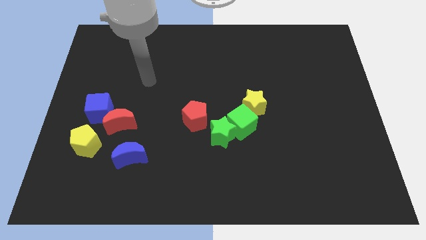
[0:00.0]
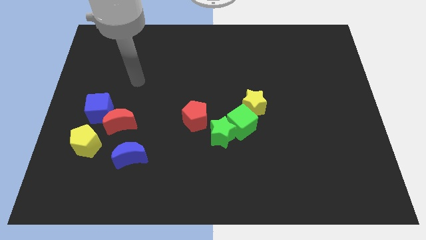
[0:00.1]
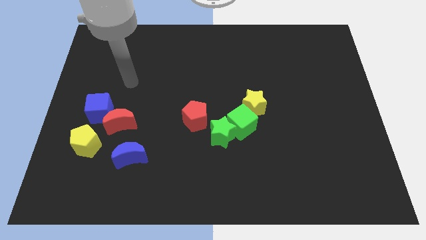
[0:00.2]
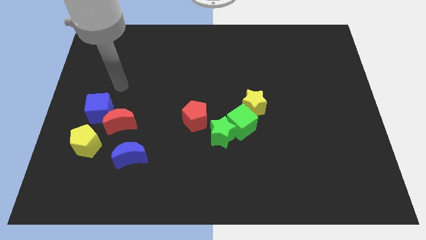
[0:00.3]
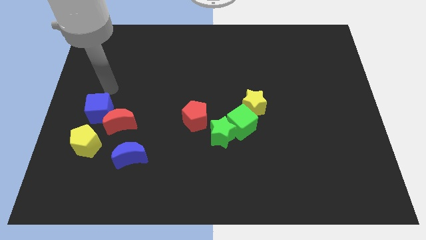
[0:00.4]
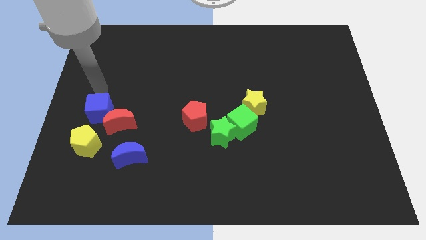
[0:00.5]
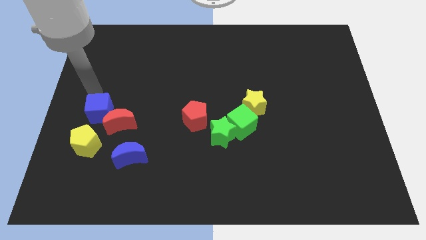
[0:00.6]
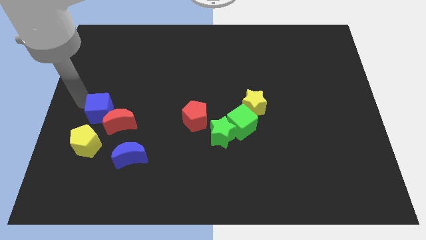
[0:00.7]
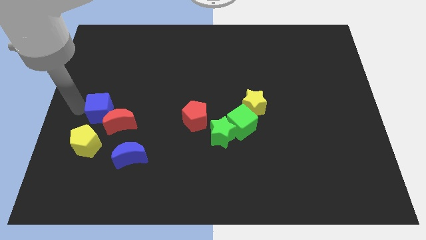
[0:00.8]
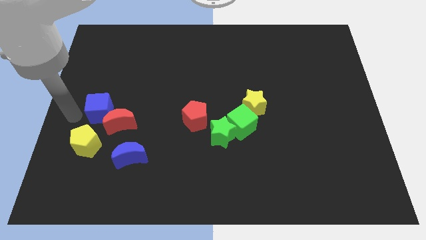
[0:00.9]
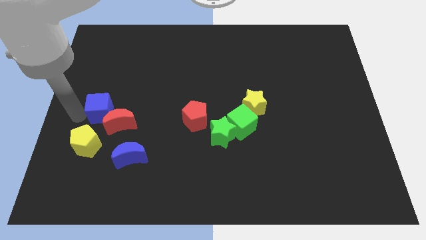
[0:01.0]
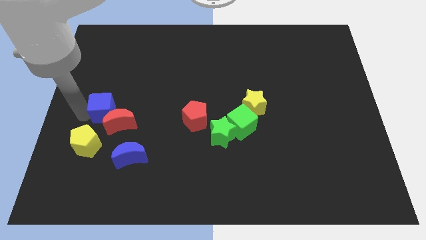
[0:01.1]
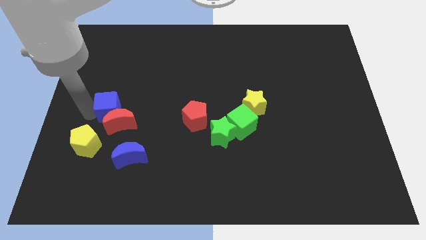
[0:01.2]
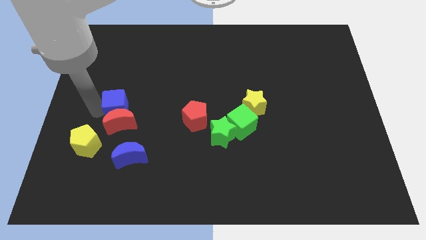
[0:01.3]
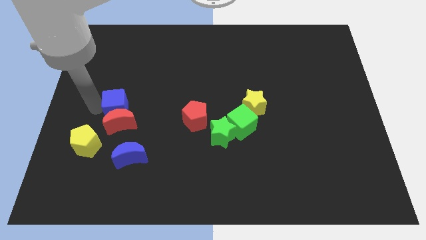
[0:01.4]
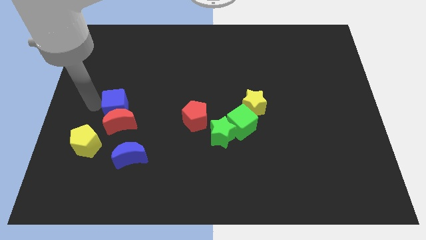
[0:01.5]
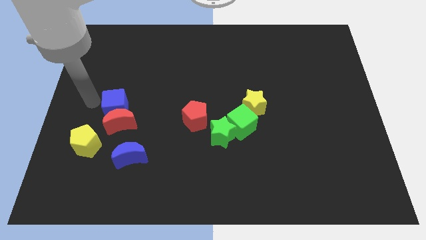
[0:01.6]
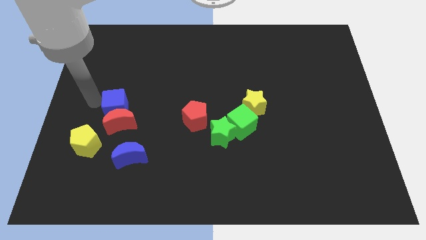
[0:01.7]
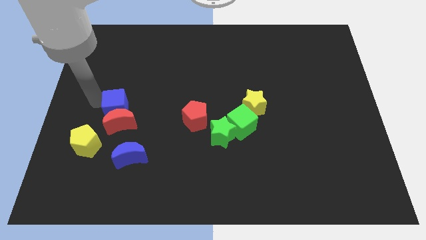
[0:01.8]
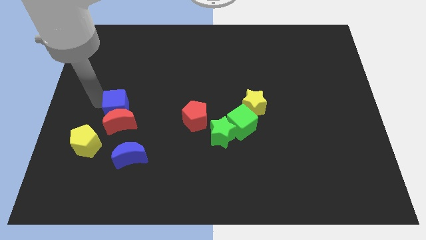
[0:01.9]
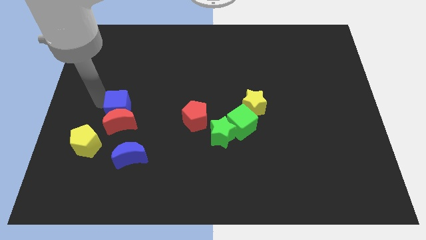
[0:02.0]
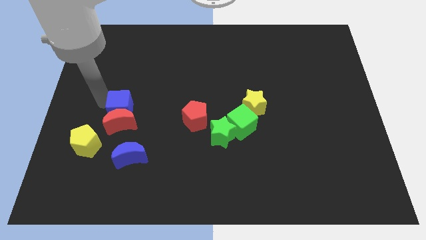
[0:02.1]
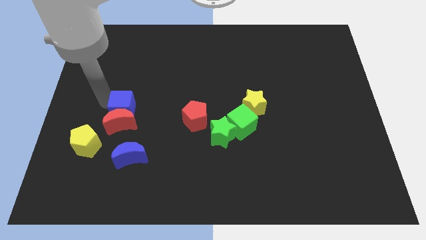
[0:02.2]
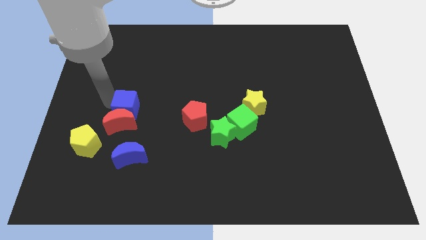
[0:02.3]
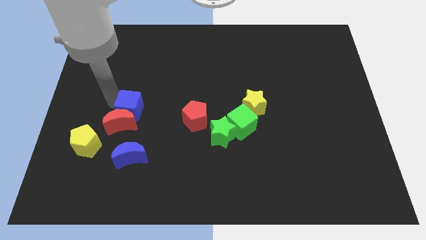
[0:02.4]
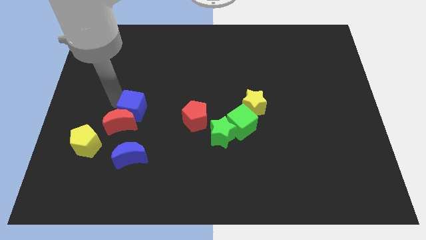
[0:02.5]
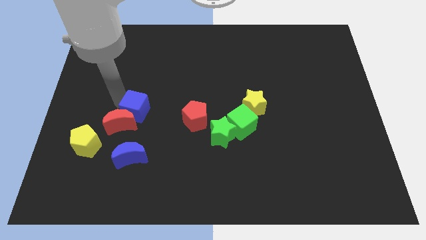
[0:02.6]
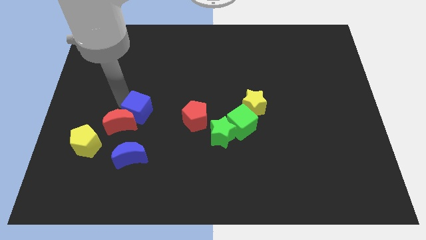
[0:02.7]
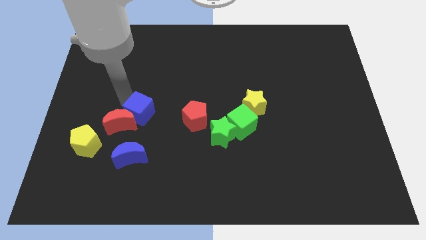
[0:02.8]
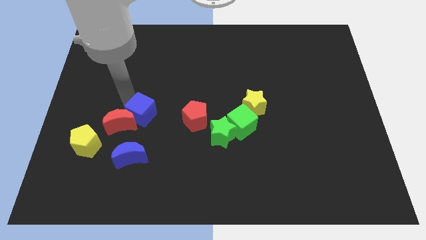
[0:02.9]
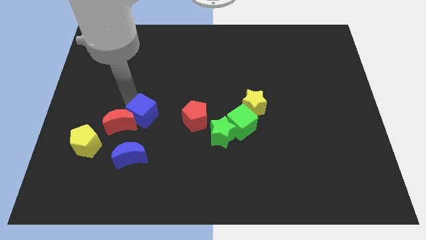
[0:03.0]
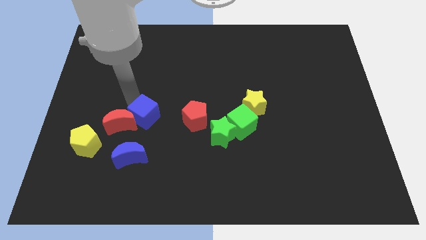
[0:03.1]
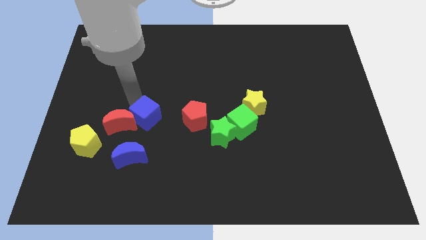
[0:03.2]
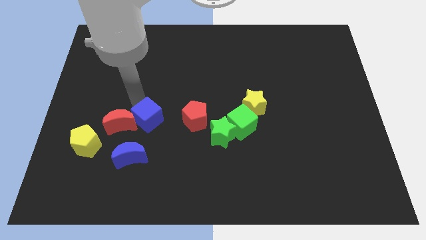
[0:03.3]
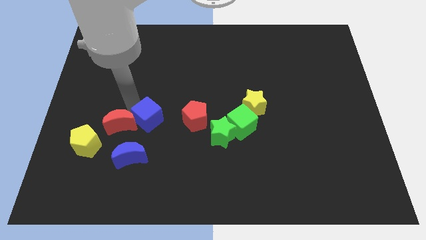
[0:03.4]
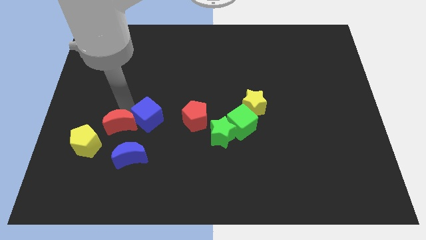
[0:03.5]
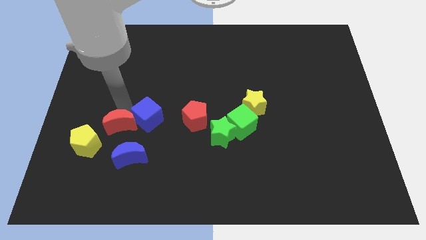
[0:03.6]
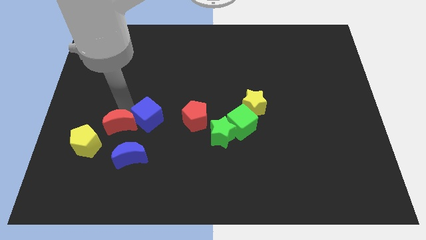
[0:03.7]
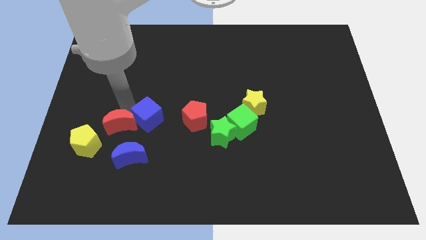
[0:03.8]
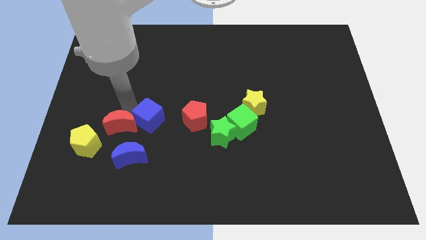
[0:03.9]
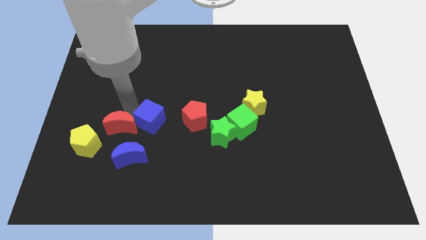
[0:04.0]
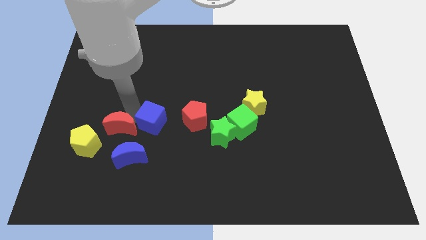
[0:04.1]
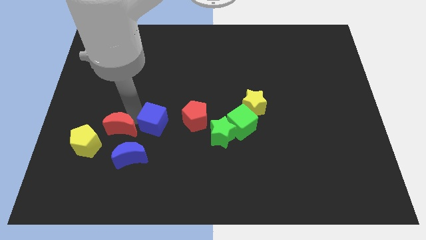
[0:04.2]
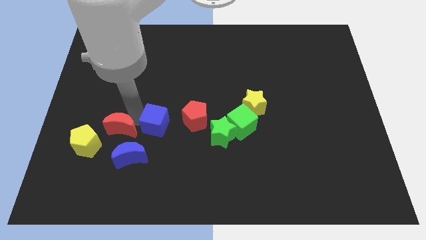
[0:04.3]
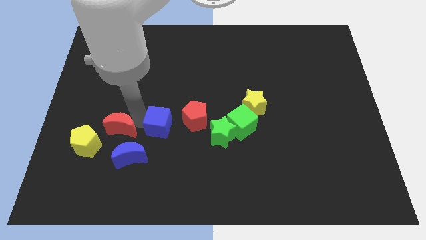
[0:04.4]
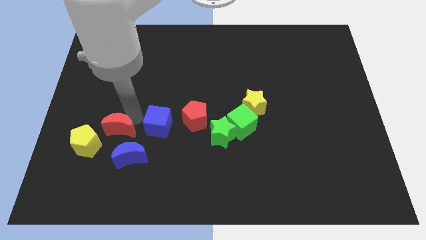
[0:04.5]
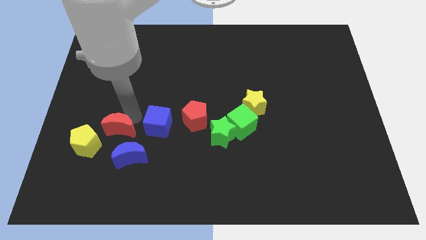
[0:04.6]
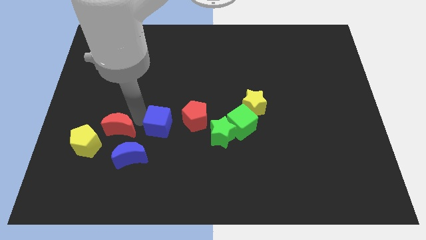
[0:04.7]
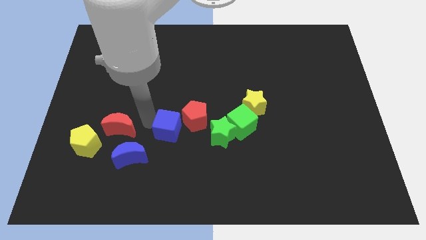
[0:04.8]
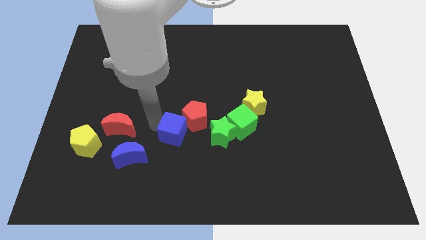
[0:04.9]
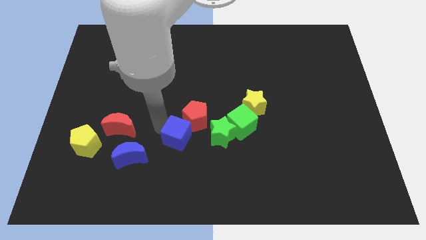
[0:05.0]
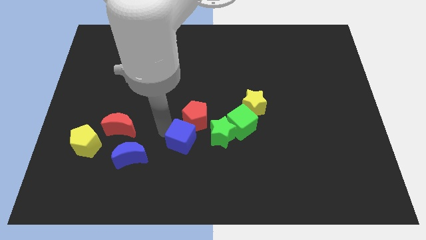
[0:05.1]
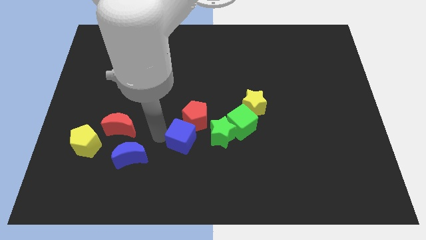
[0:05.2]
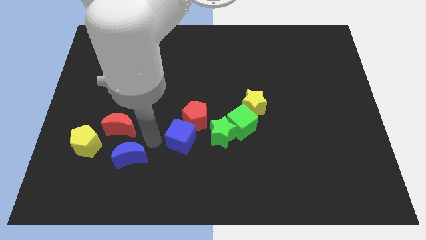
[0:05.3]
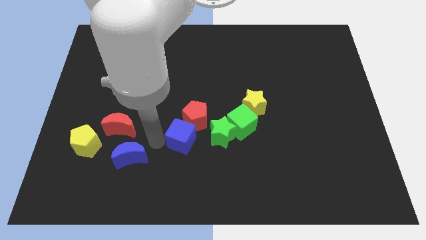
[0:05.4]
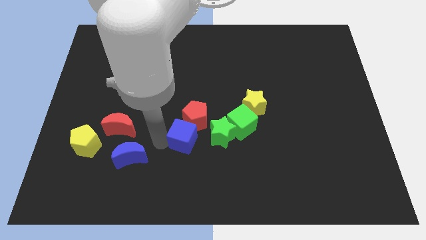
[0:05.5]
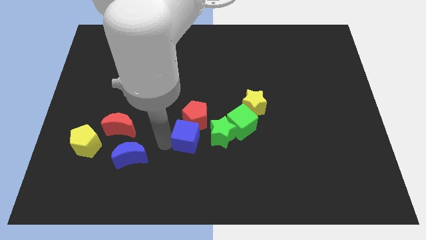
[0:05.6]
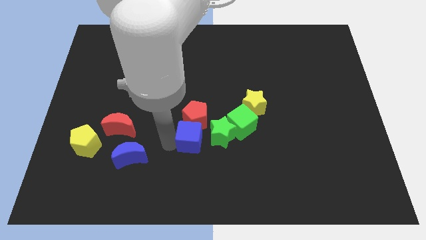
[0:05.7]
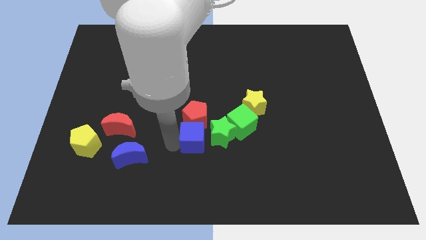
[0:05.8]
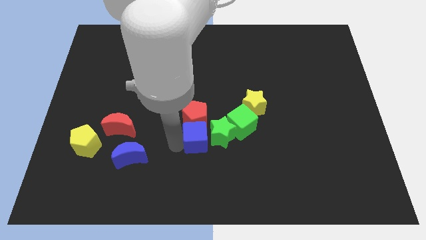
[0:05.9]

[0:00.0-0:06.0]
push the blue cube towards the green star

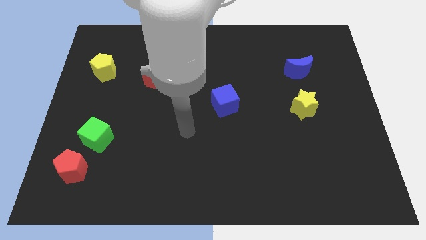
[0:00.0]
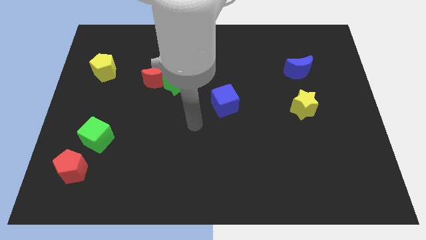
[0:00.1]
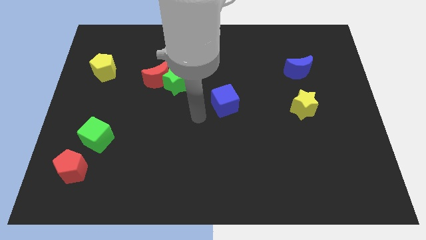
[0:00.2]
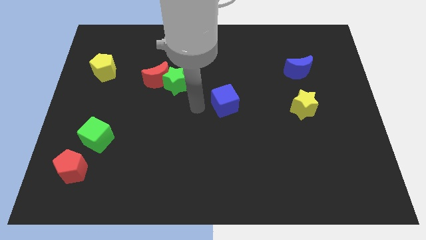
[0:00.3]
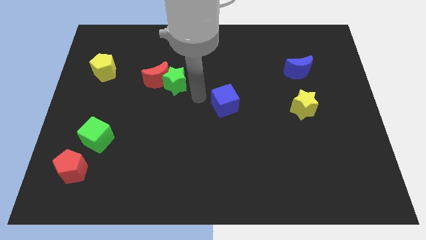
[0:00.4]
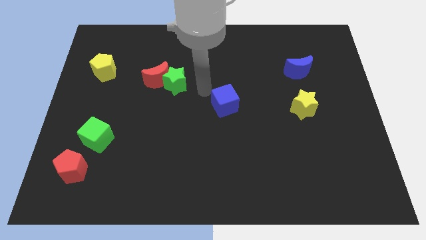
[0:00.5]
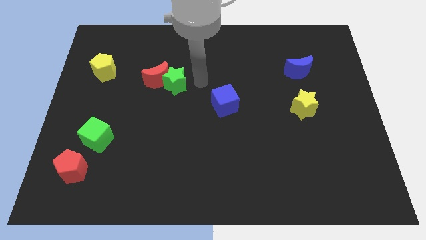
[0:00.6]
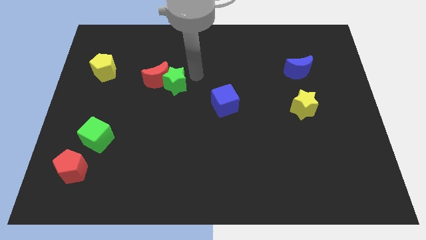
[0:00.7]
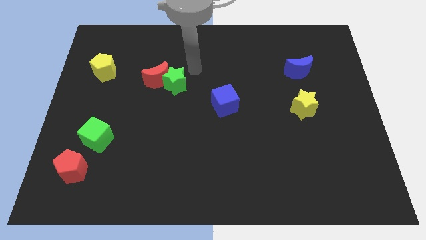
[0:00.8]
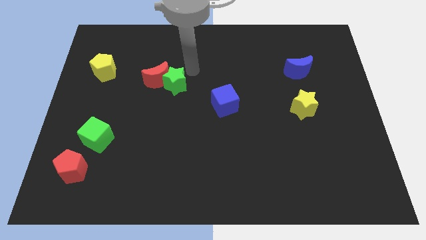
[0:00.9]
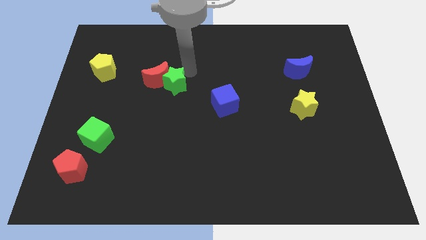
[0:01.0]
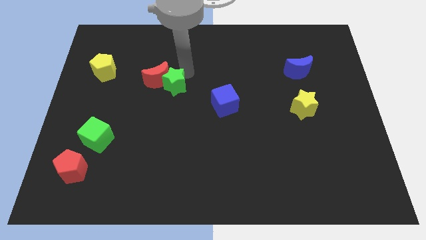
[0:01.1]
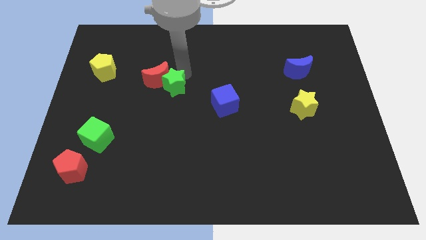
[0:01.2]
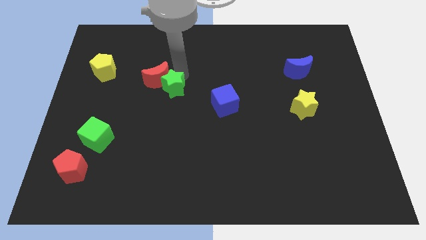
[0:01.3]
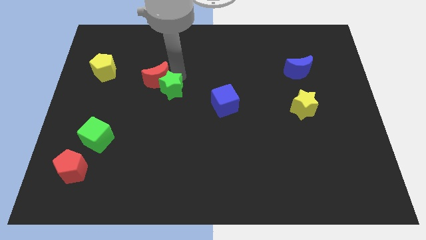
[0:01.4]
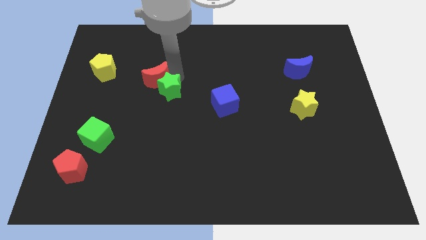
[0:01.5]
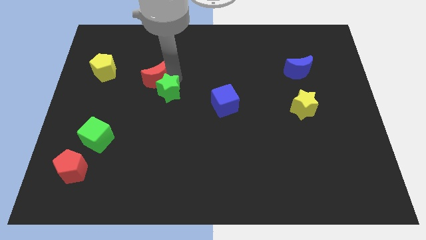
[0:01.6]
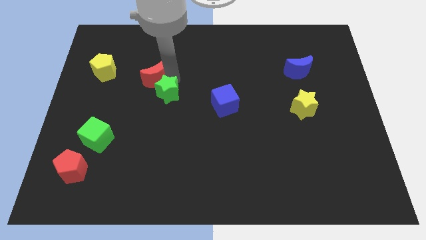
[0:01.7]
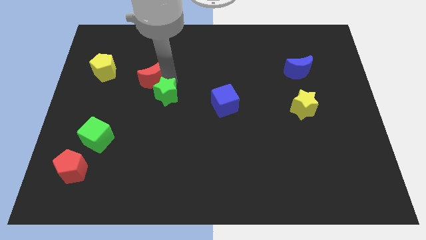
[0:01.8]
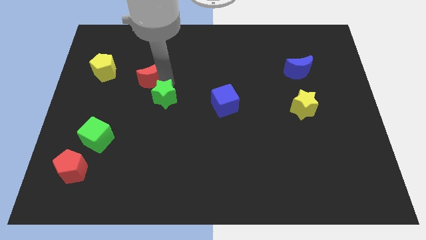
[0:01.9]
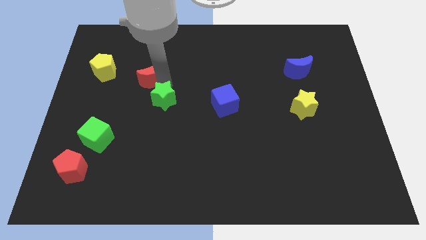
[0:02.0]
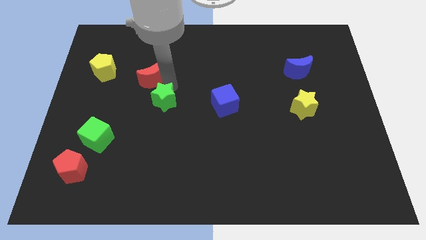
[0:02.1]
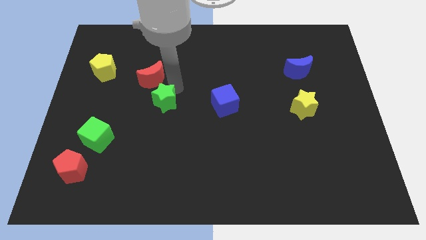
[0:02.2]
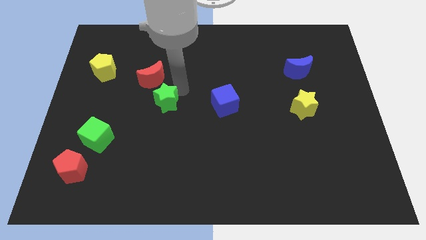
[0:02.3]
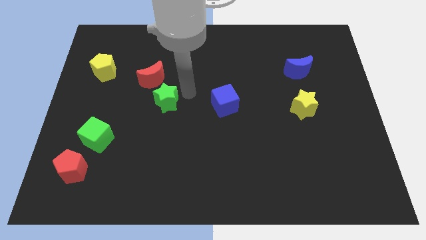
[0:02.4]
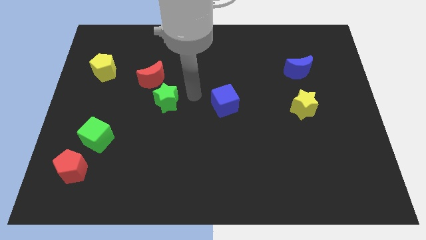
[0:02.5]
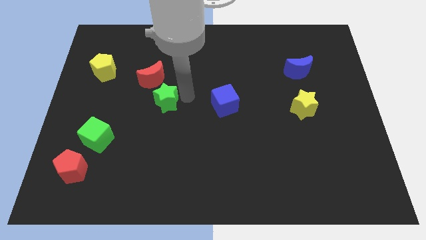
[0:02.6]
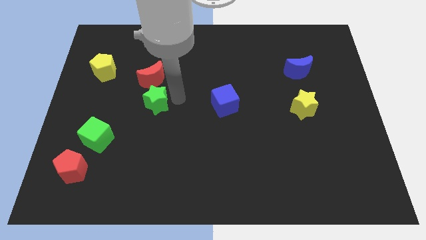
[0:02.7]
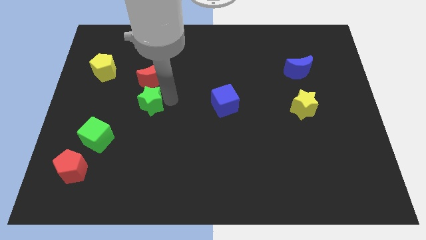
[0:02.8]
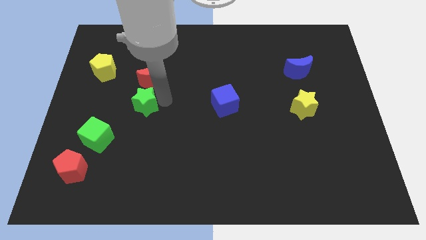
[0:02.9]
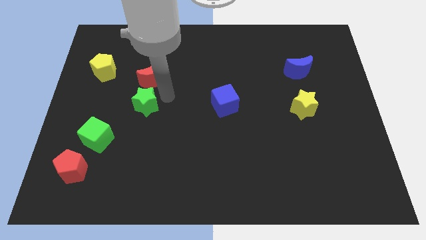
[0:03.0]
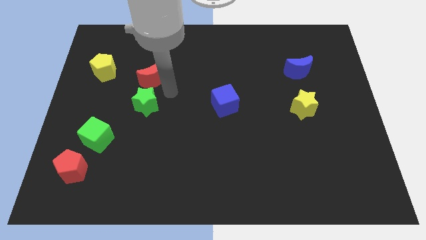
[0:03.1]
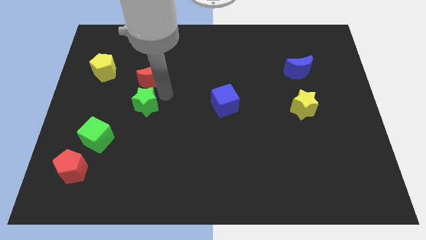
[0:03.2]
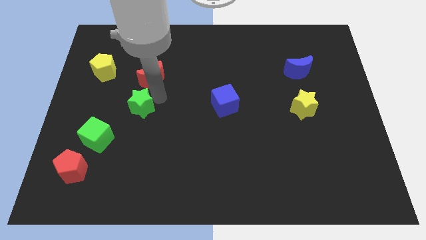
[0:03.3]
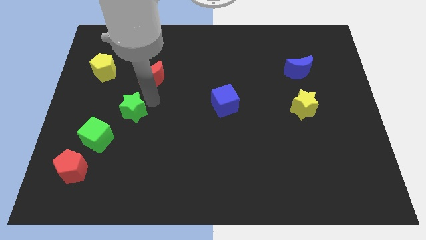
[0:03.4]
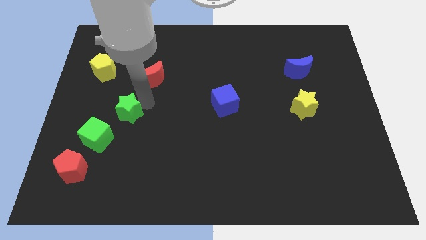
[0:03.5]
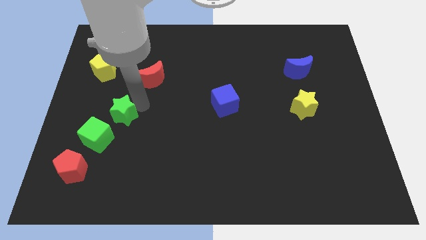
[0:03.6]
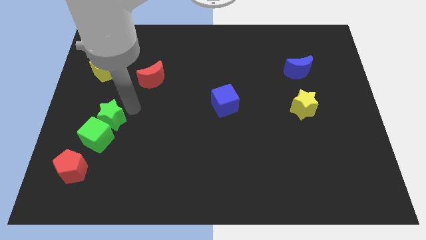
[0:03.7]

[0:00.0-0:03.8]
put the green star towards the green cube
